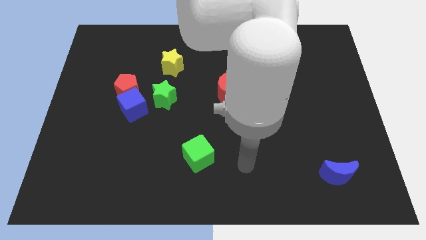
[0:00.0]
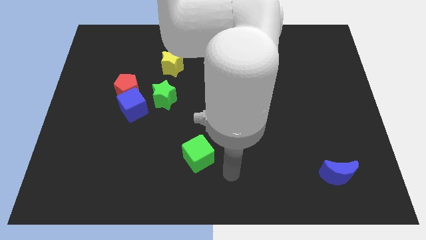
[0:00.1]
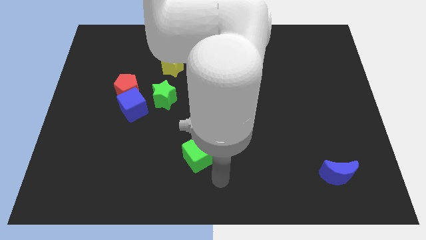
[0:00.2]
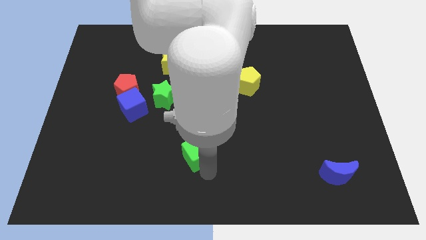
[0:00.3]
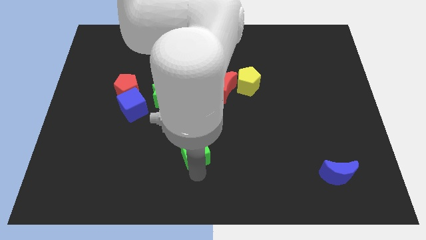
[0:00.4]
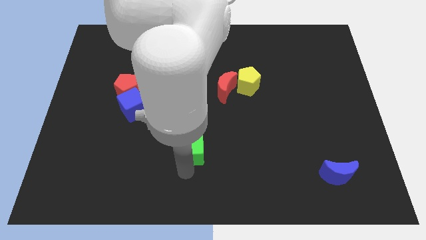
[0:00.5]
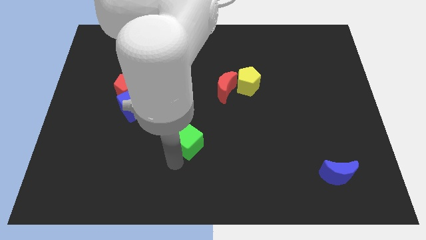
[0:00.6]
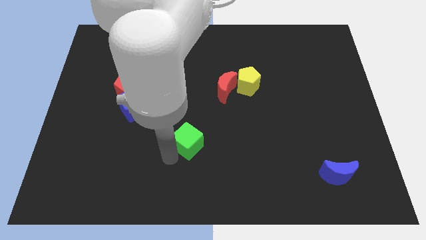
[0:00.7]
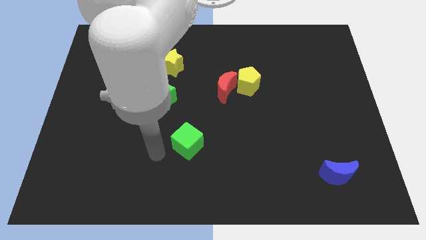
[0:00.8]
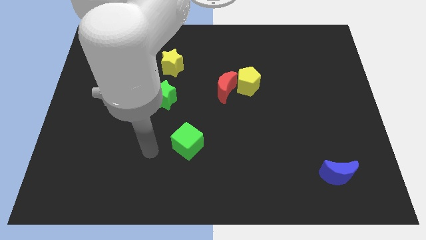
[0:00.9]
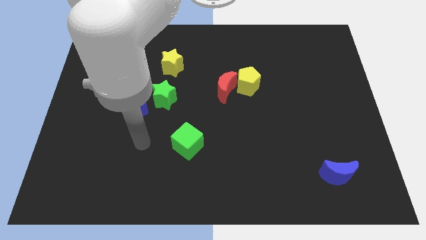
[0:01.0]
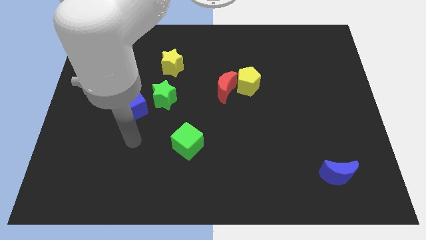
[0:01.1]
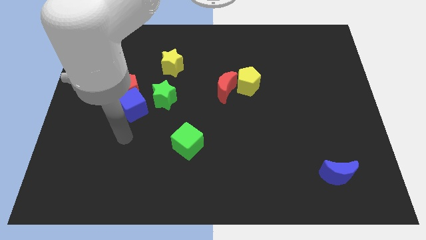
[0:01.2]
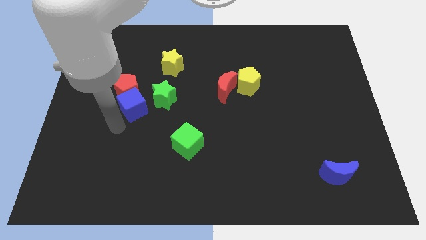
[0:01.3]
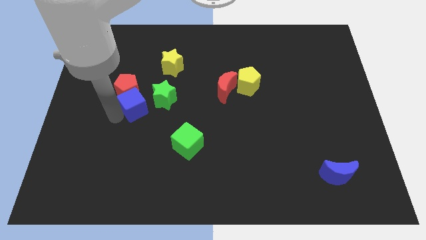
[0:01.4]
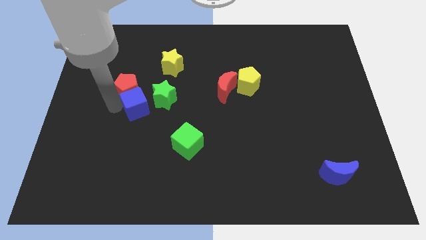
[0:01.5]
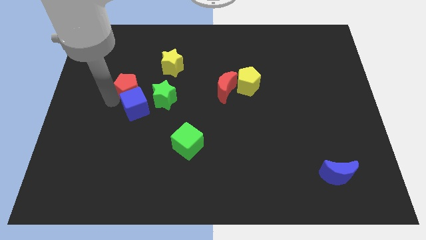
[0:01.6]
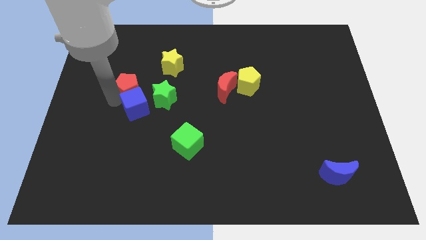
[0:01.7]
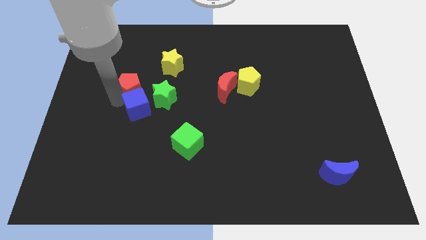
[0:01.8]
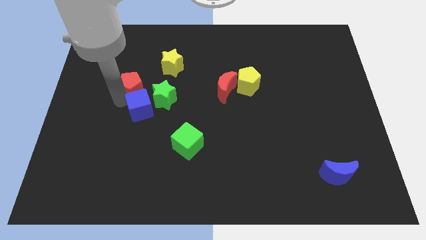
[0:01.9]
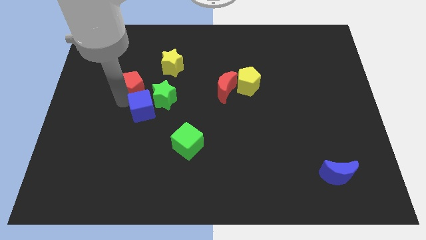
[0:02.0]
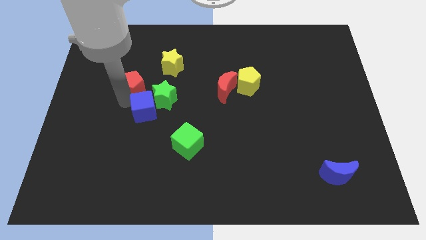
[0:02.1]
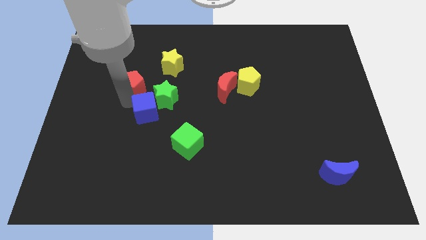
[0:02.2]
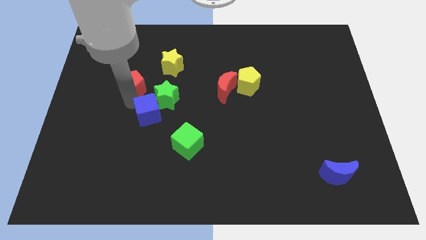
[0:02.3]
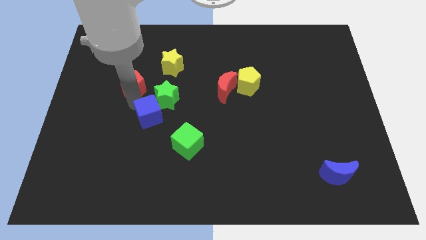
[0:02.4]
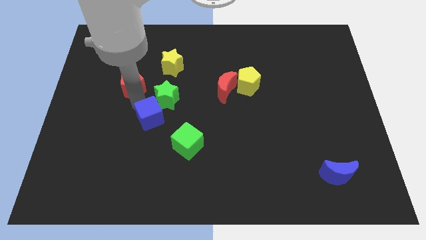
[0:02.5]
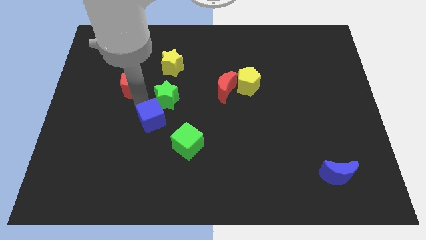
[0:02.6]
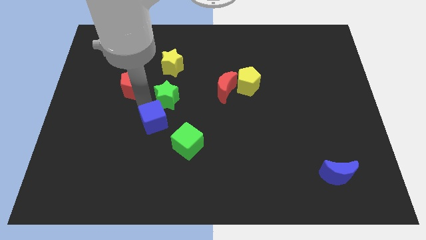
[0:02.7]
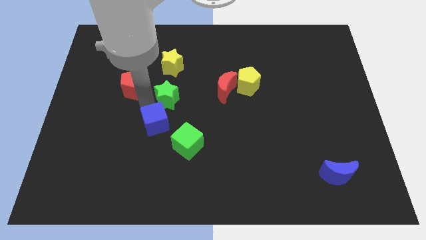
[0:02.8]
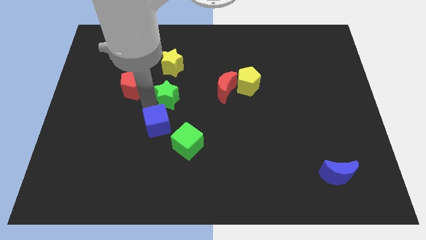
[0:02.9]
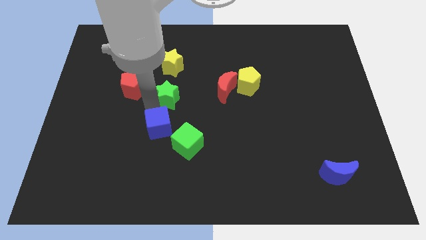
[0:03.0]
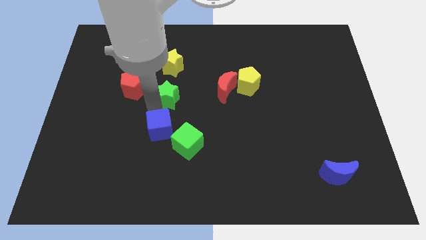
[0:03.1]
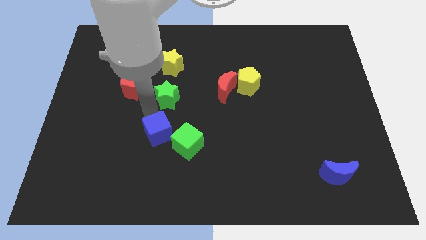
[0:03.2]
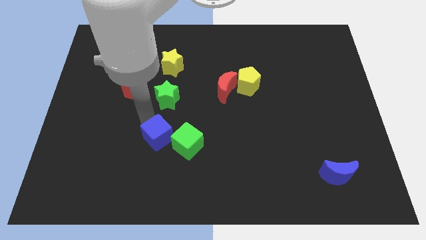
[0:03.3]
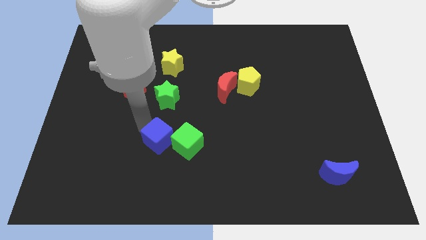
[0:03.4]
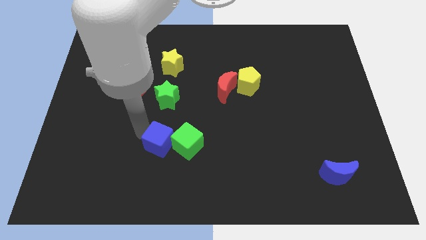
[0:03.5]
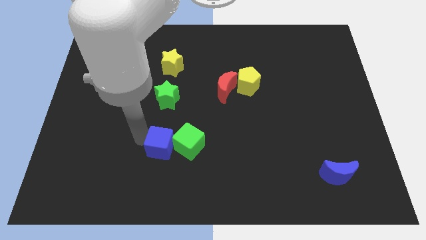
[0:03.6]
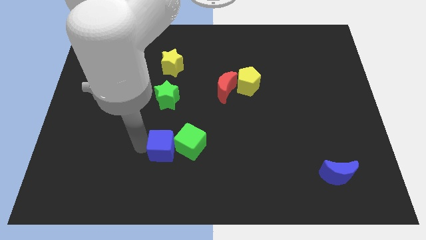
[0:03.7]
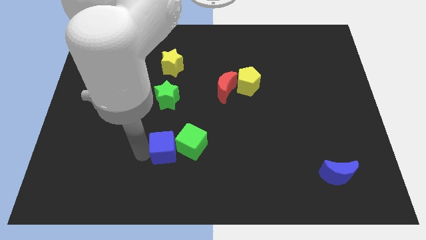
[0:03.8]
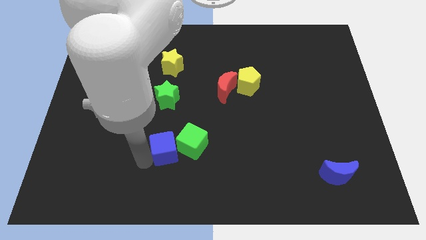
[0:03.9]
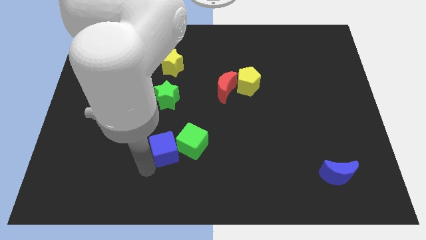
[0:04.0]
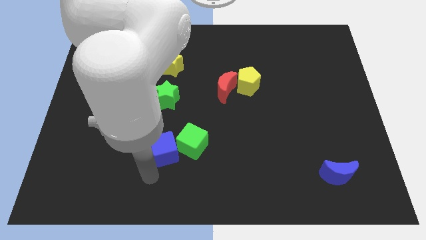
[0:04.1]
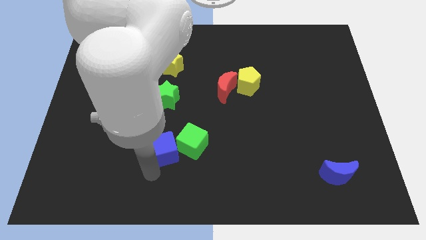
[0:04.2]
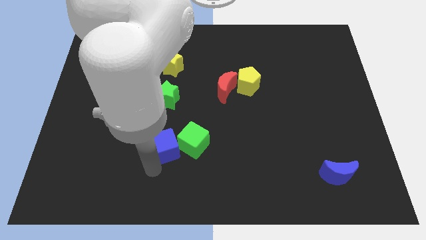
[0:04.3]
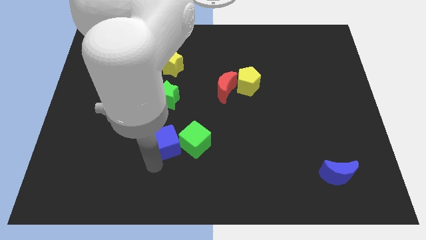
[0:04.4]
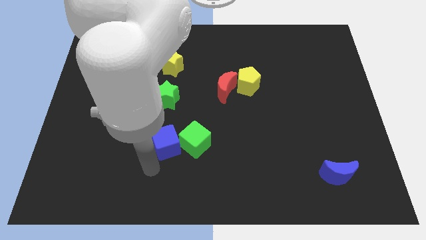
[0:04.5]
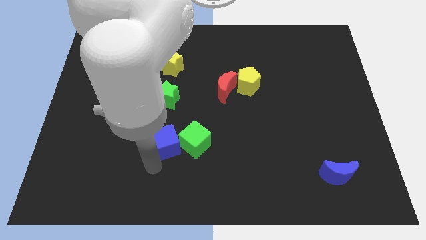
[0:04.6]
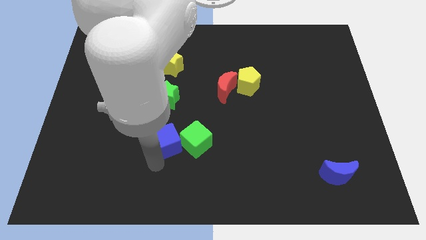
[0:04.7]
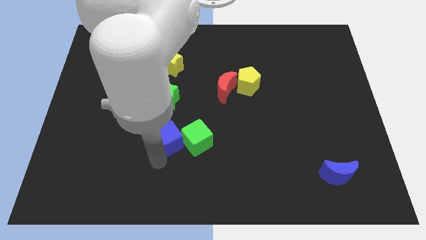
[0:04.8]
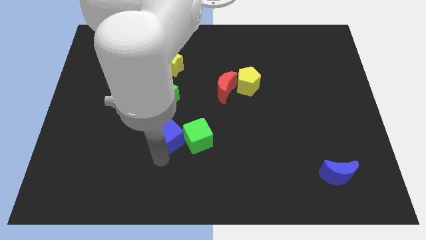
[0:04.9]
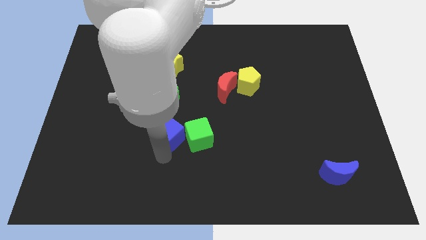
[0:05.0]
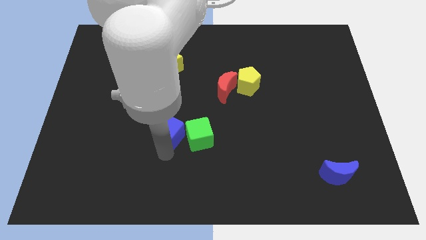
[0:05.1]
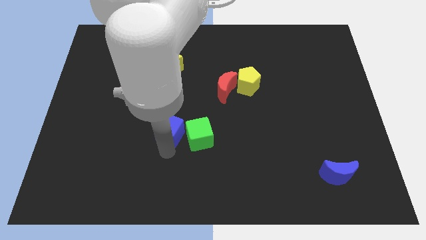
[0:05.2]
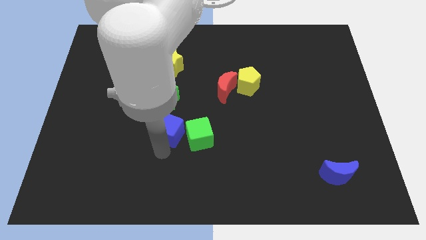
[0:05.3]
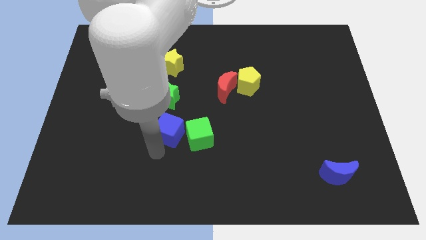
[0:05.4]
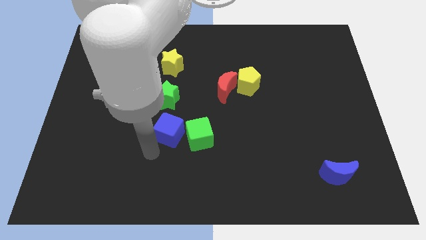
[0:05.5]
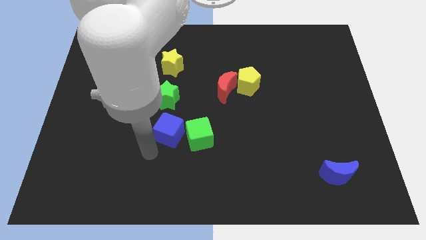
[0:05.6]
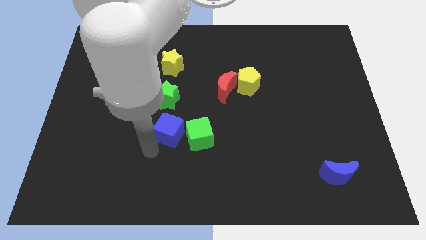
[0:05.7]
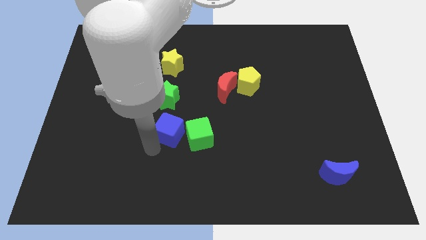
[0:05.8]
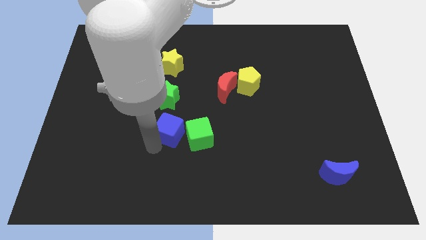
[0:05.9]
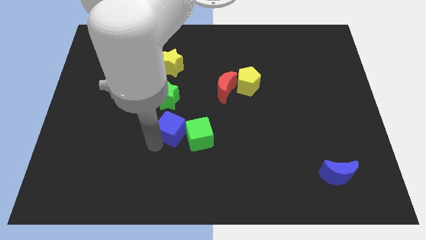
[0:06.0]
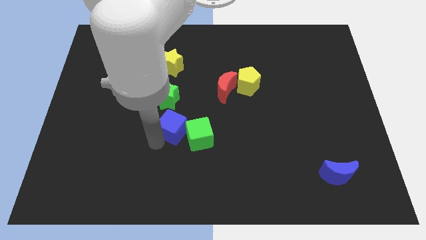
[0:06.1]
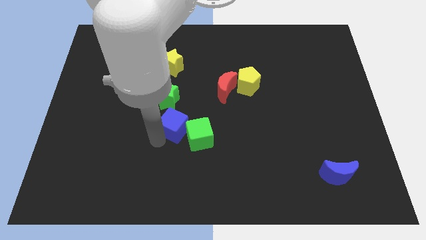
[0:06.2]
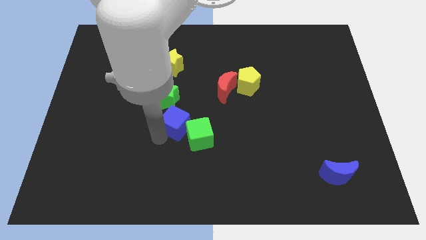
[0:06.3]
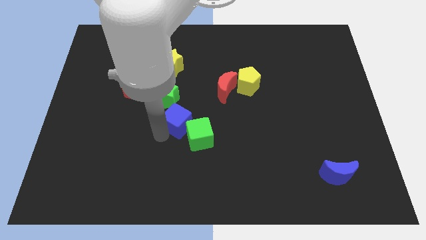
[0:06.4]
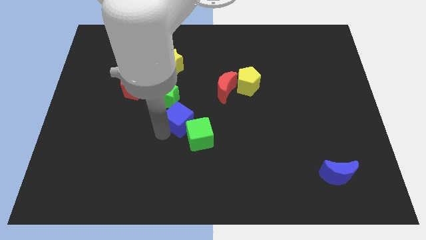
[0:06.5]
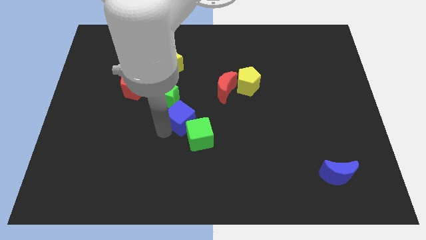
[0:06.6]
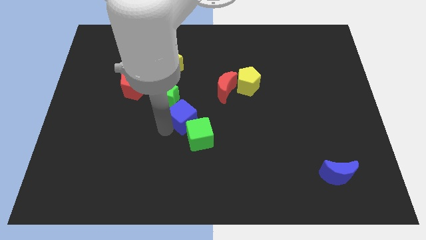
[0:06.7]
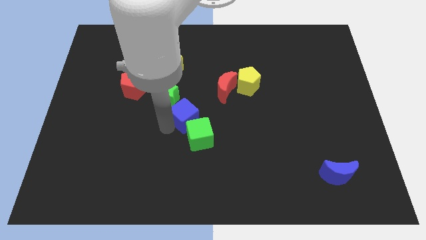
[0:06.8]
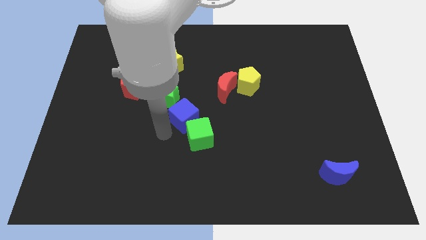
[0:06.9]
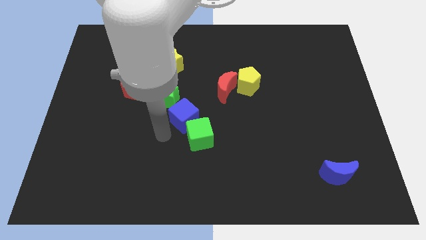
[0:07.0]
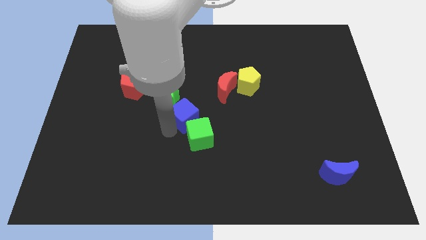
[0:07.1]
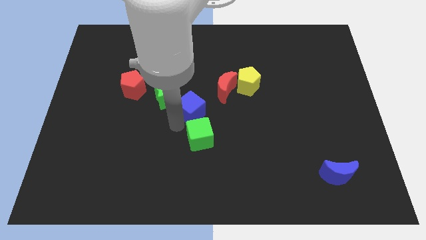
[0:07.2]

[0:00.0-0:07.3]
slide the blue cube to the right of the green star

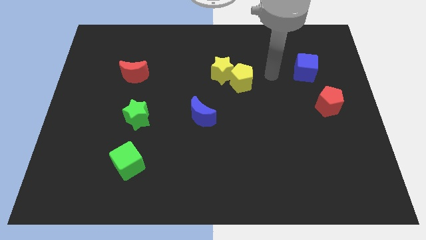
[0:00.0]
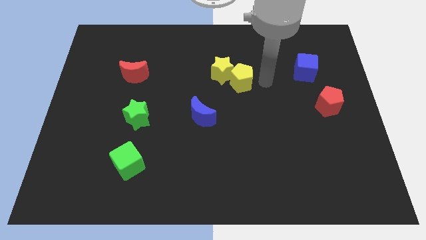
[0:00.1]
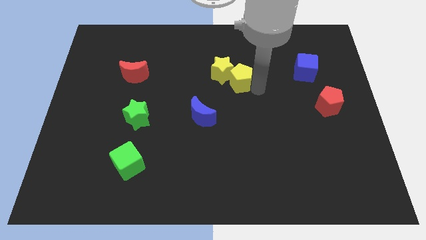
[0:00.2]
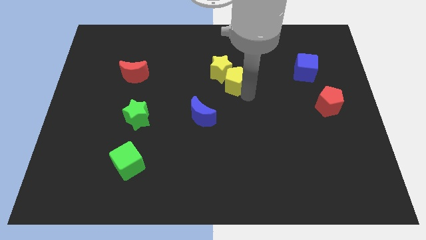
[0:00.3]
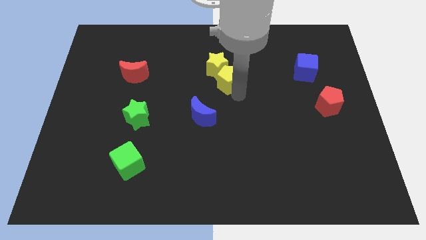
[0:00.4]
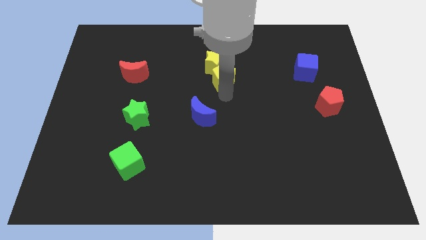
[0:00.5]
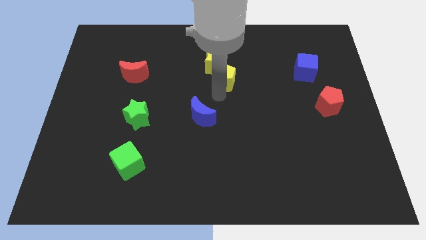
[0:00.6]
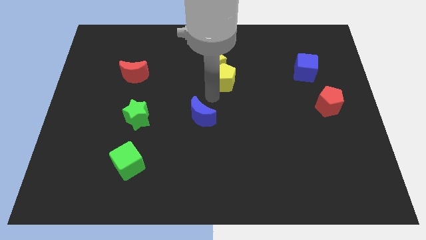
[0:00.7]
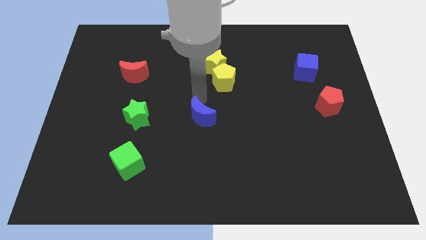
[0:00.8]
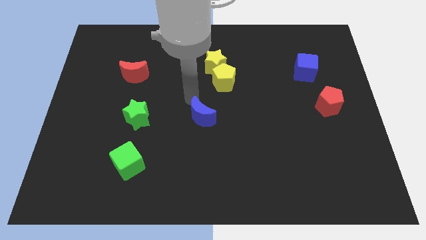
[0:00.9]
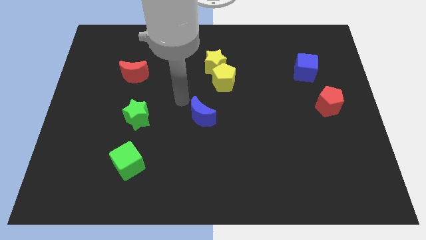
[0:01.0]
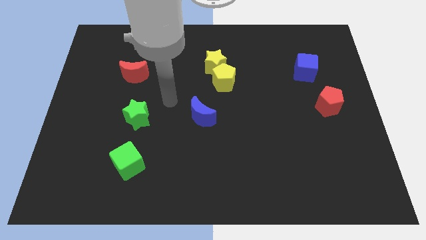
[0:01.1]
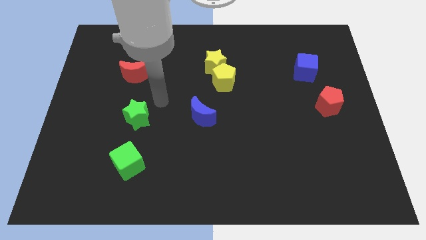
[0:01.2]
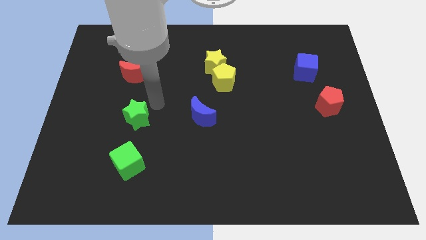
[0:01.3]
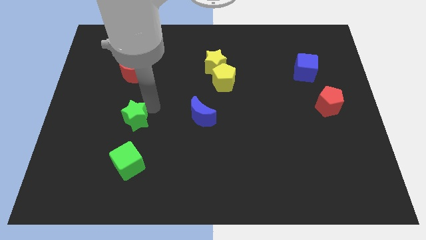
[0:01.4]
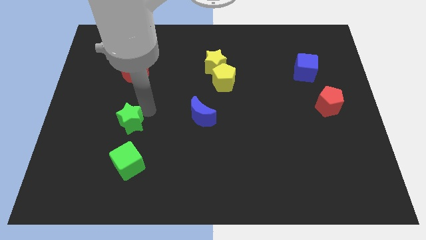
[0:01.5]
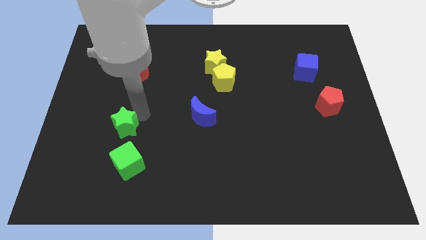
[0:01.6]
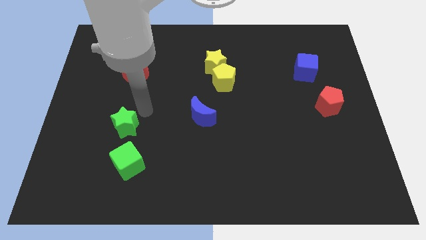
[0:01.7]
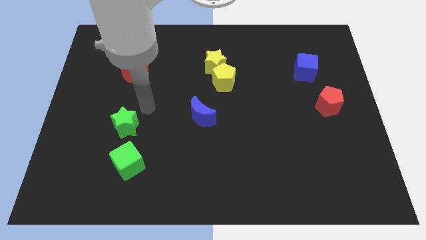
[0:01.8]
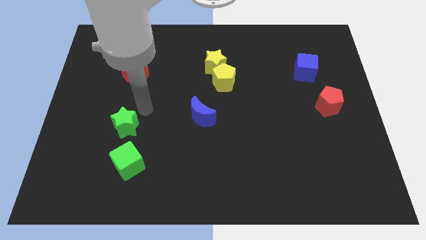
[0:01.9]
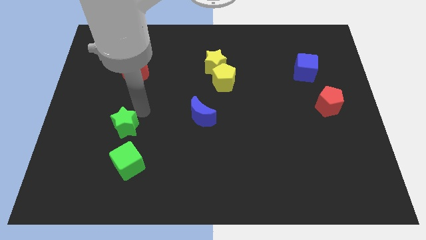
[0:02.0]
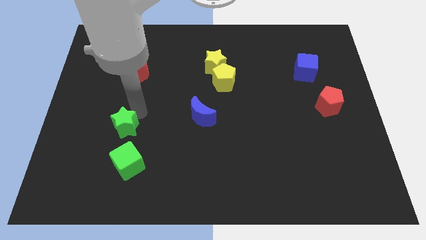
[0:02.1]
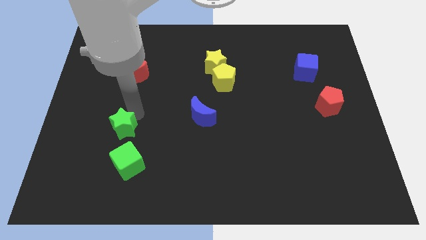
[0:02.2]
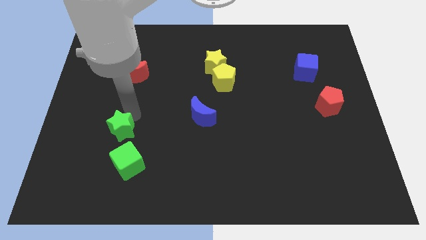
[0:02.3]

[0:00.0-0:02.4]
put the green star to the top left side of the green cube
